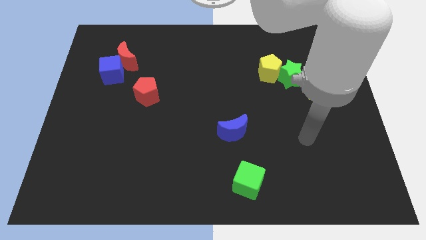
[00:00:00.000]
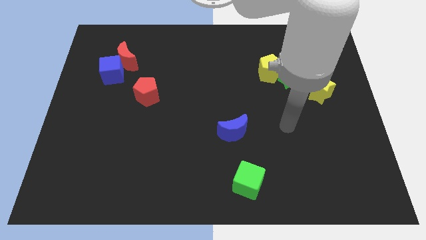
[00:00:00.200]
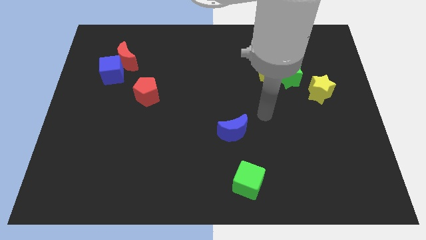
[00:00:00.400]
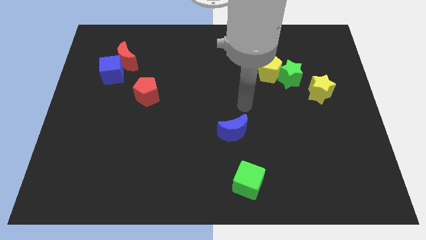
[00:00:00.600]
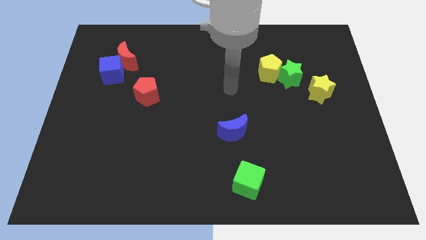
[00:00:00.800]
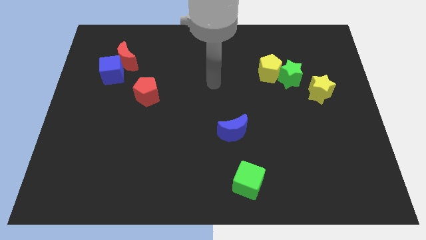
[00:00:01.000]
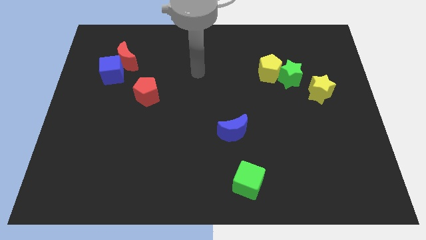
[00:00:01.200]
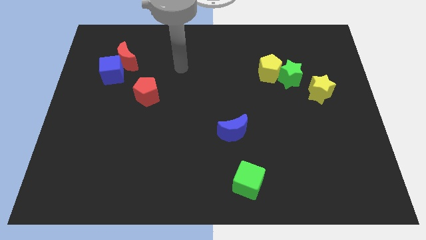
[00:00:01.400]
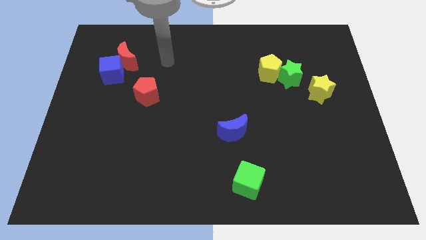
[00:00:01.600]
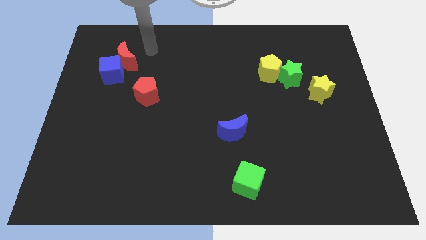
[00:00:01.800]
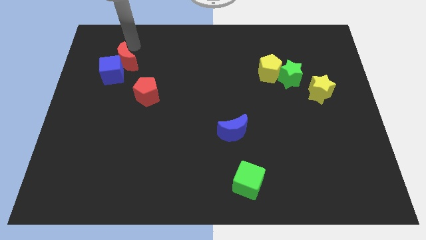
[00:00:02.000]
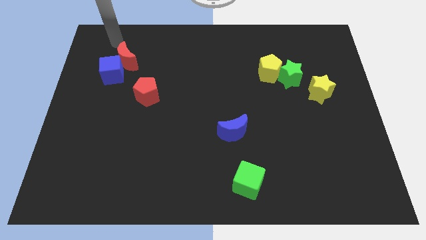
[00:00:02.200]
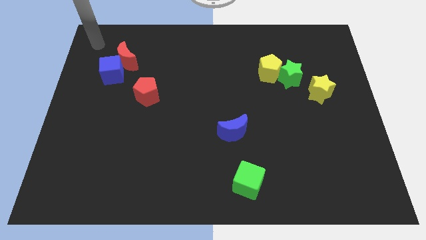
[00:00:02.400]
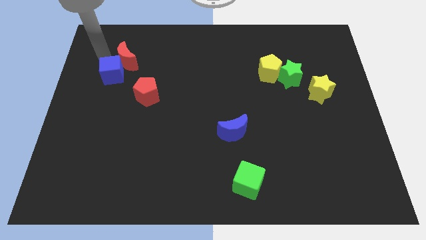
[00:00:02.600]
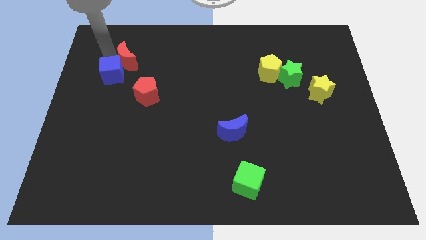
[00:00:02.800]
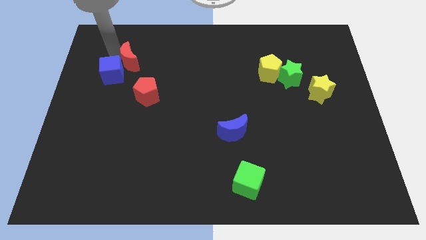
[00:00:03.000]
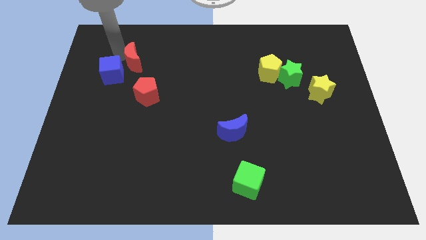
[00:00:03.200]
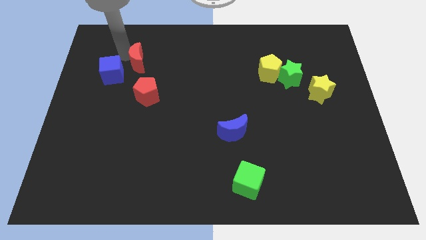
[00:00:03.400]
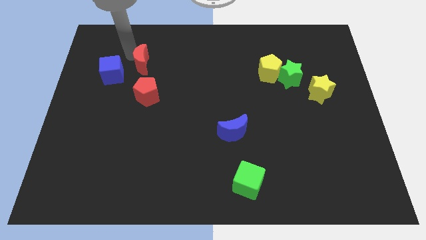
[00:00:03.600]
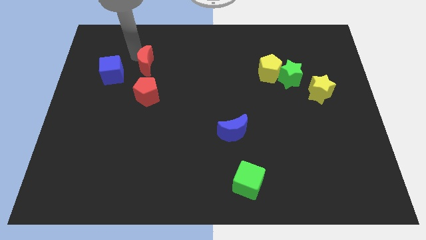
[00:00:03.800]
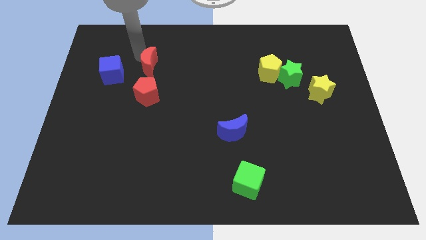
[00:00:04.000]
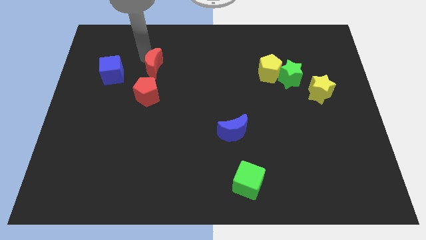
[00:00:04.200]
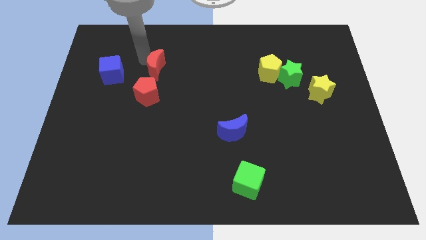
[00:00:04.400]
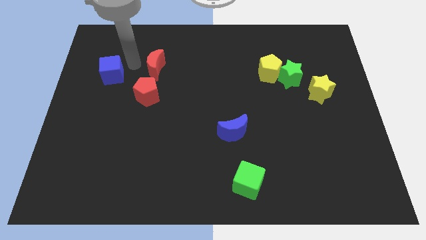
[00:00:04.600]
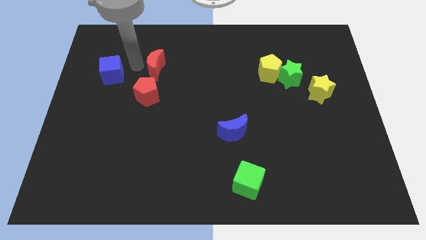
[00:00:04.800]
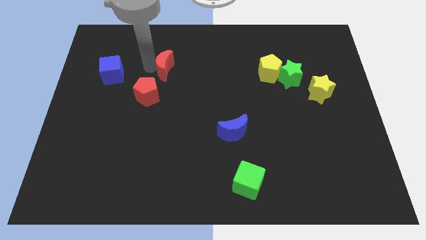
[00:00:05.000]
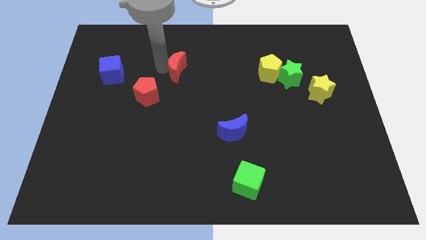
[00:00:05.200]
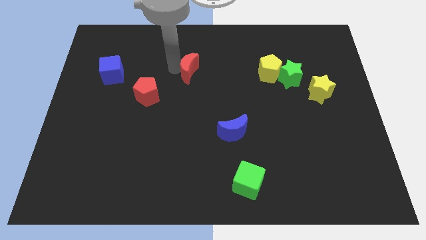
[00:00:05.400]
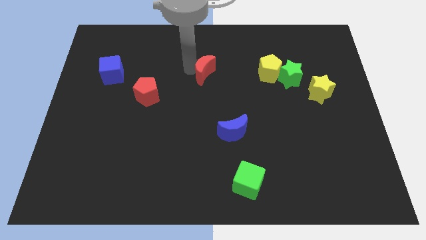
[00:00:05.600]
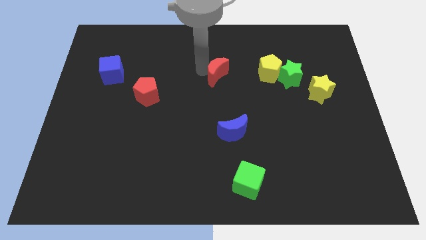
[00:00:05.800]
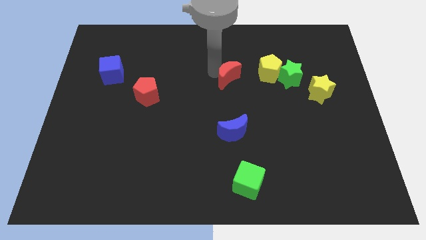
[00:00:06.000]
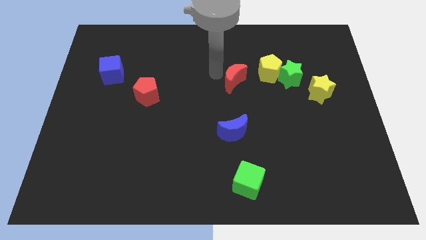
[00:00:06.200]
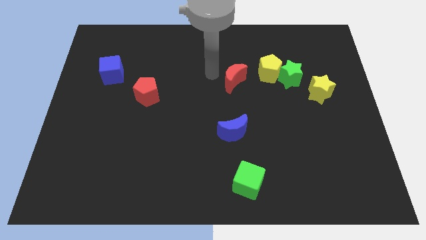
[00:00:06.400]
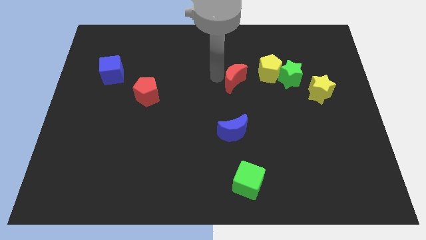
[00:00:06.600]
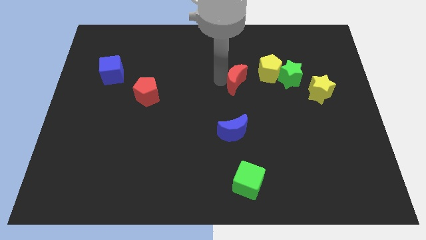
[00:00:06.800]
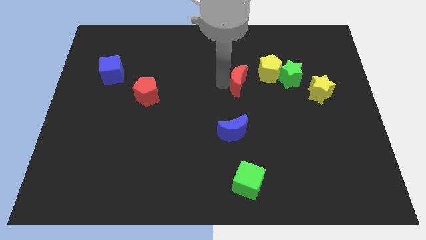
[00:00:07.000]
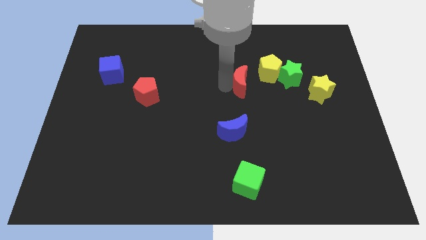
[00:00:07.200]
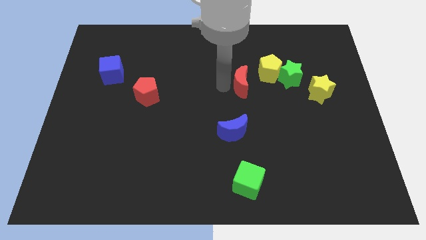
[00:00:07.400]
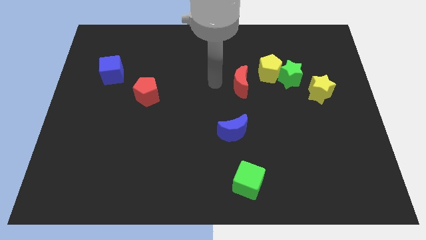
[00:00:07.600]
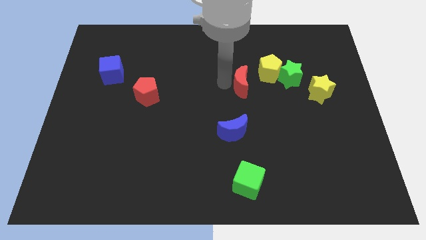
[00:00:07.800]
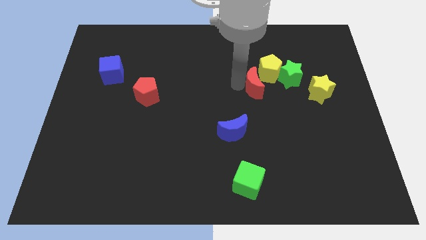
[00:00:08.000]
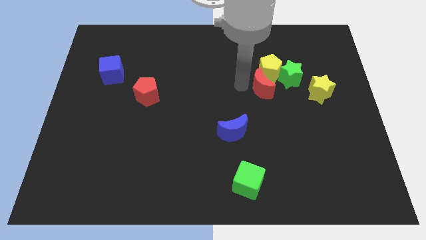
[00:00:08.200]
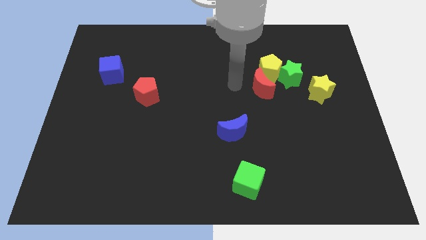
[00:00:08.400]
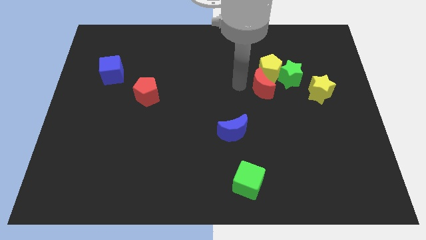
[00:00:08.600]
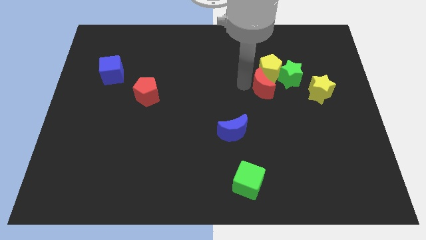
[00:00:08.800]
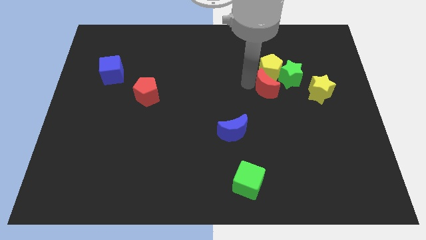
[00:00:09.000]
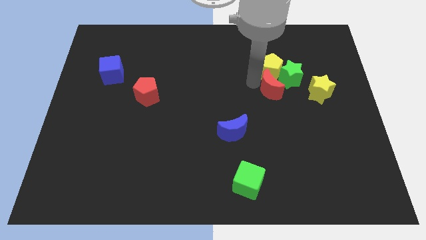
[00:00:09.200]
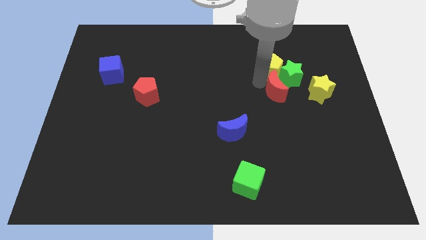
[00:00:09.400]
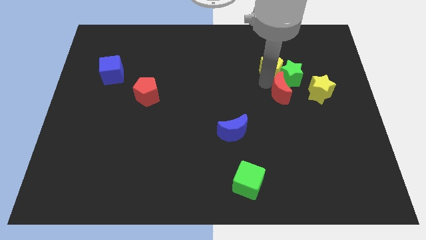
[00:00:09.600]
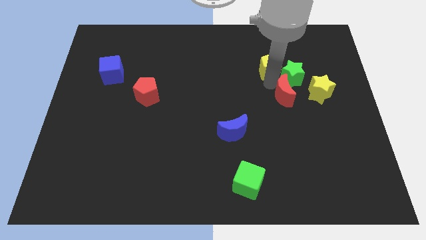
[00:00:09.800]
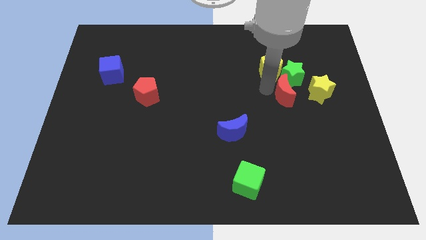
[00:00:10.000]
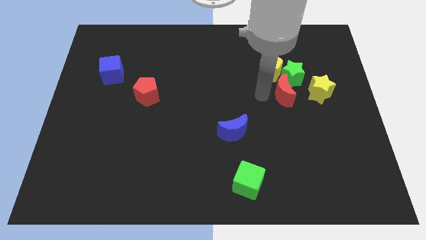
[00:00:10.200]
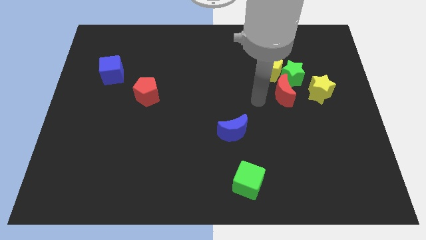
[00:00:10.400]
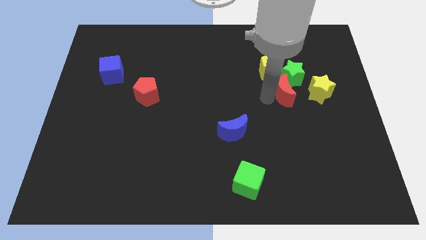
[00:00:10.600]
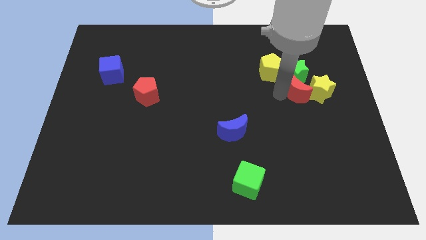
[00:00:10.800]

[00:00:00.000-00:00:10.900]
move the red moon close to the yellow star

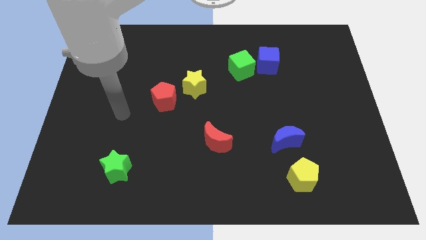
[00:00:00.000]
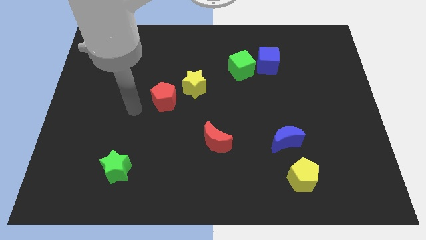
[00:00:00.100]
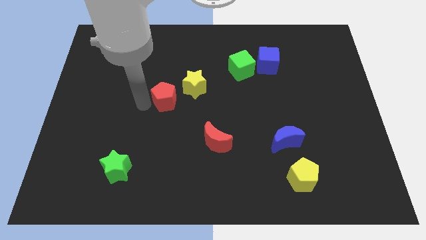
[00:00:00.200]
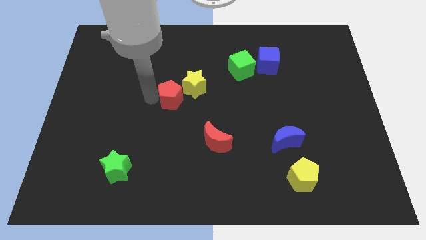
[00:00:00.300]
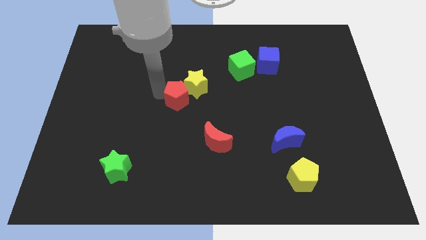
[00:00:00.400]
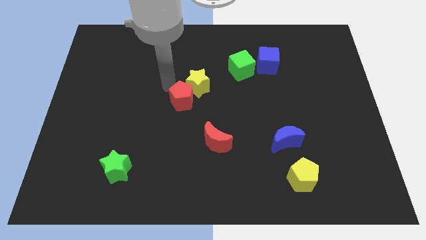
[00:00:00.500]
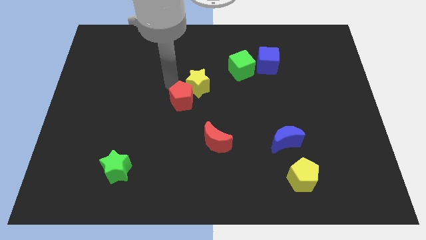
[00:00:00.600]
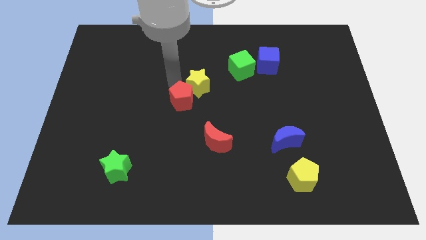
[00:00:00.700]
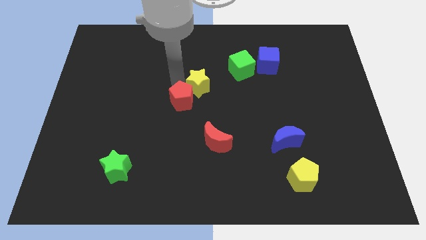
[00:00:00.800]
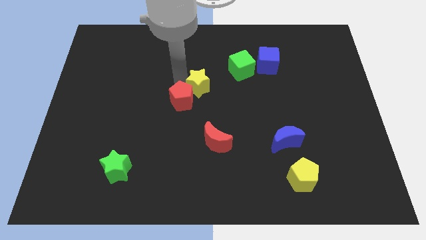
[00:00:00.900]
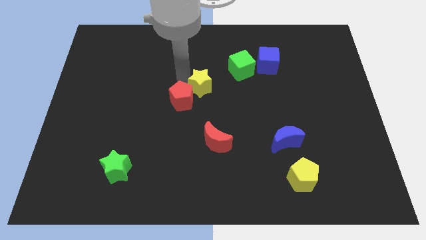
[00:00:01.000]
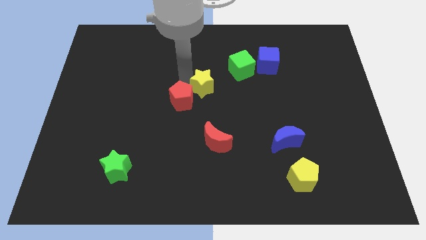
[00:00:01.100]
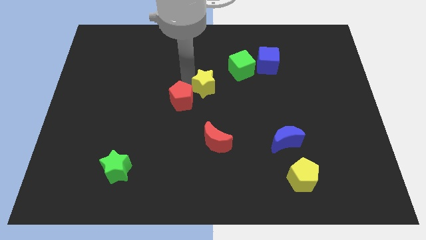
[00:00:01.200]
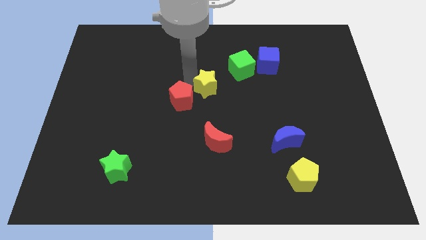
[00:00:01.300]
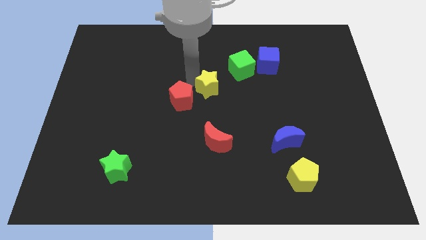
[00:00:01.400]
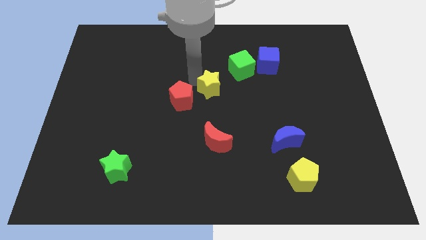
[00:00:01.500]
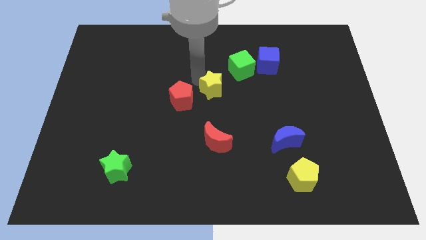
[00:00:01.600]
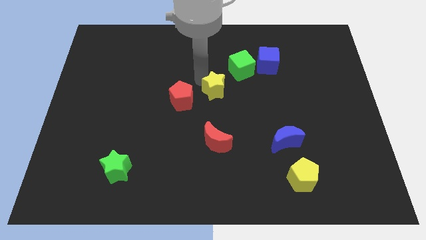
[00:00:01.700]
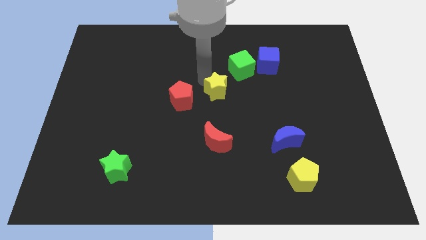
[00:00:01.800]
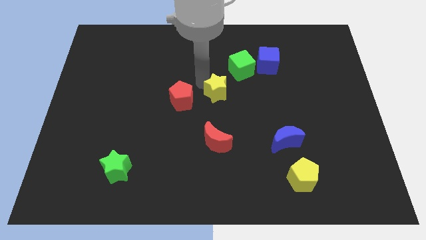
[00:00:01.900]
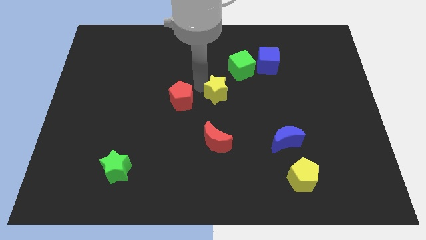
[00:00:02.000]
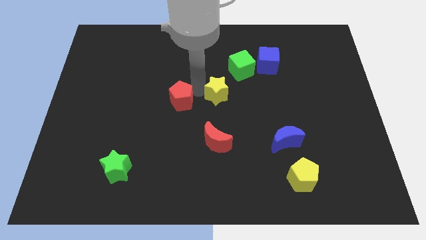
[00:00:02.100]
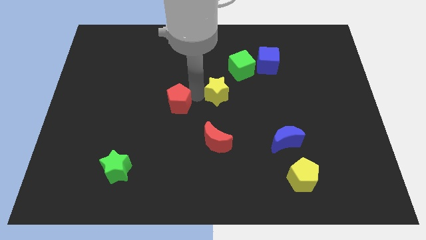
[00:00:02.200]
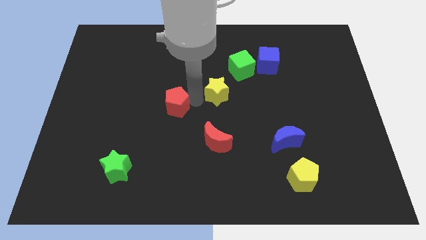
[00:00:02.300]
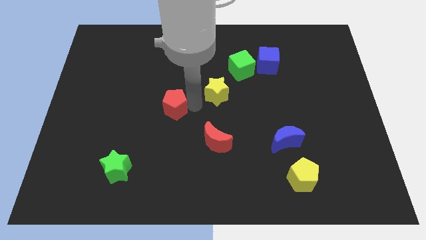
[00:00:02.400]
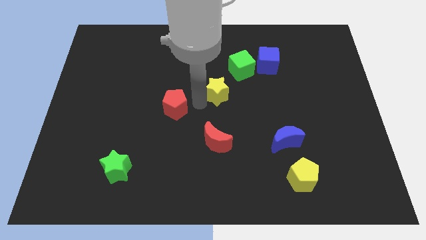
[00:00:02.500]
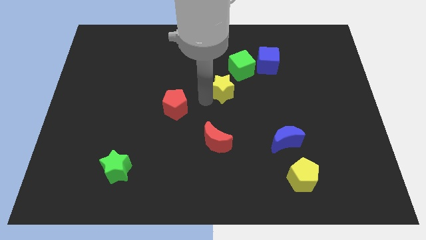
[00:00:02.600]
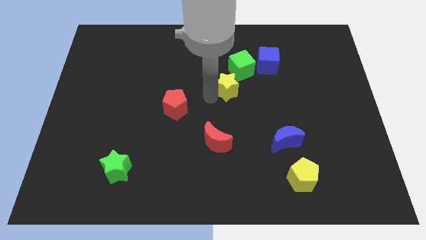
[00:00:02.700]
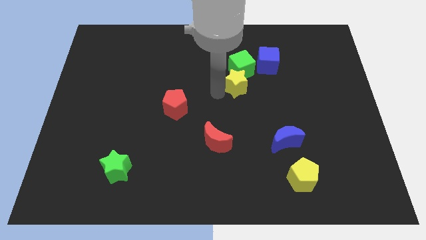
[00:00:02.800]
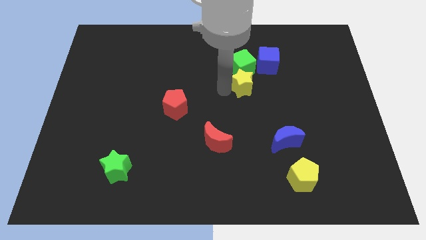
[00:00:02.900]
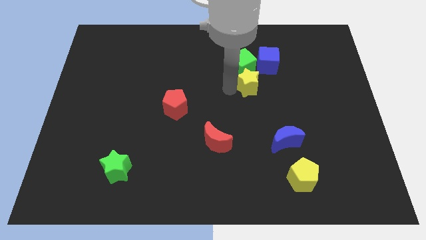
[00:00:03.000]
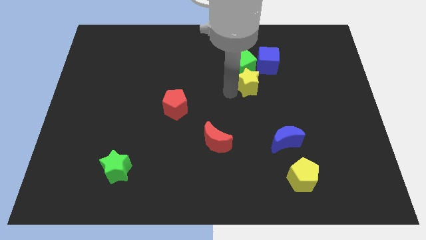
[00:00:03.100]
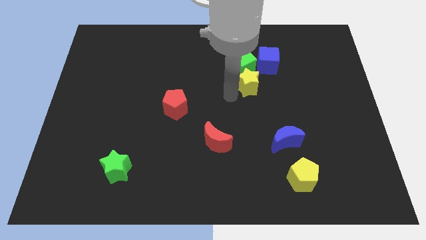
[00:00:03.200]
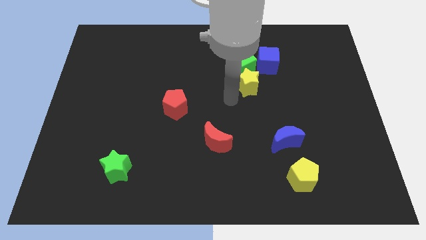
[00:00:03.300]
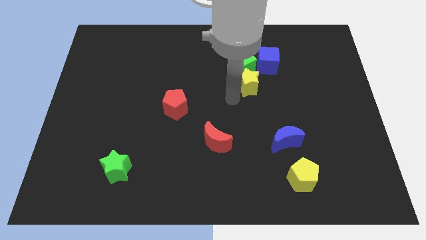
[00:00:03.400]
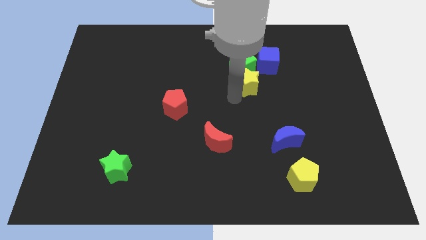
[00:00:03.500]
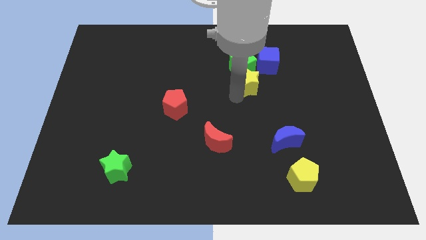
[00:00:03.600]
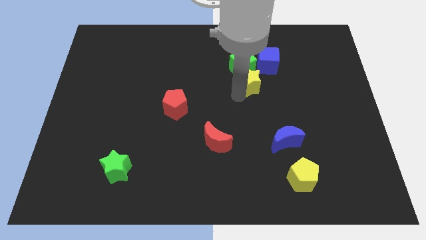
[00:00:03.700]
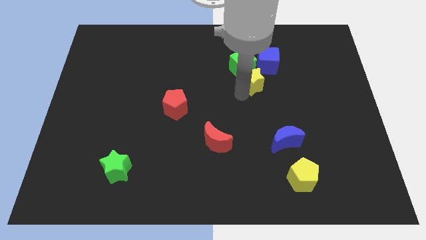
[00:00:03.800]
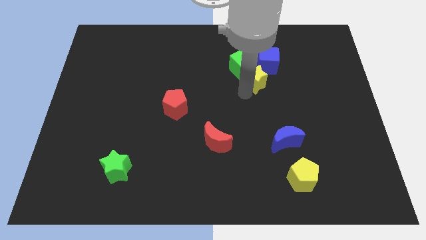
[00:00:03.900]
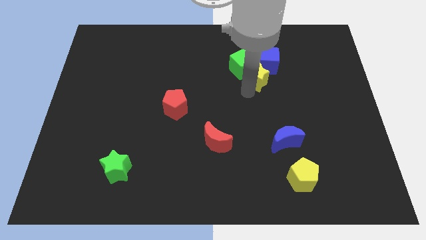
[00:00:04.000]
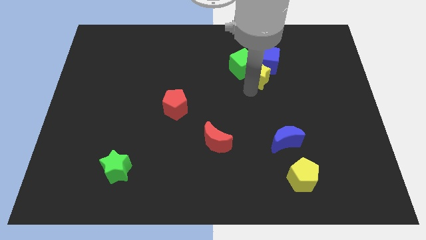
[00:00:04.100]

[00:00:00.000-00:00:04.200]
push the yellow star next to the blue cube
